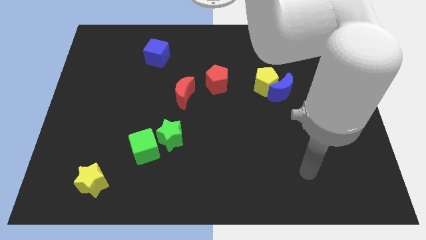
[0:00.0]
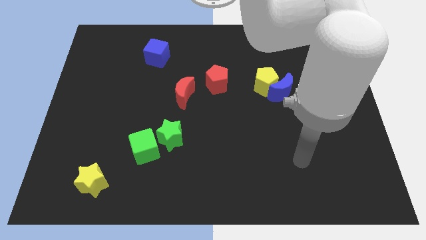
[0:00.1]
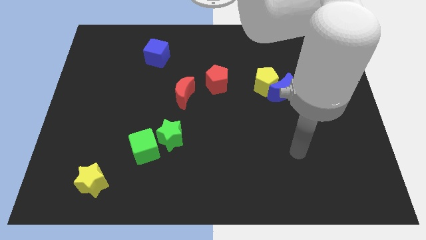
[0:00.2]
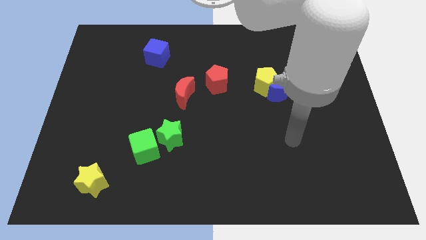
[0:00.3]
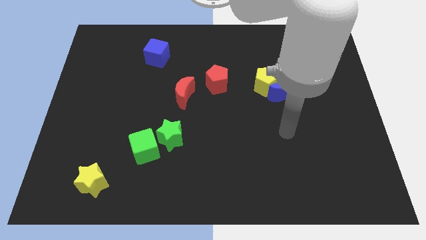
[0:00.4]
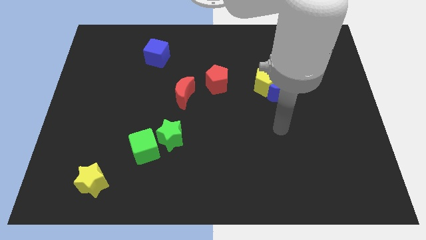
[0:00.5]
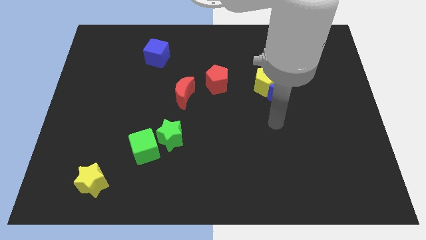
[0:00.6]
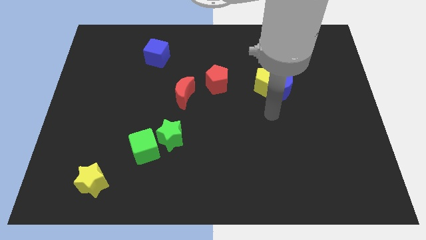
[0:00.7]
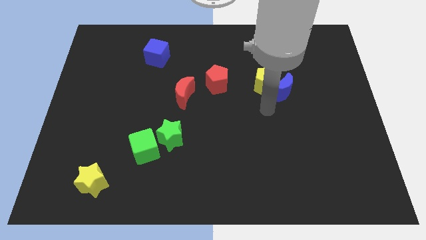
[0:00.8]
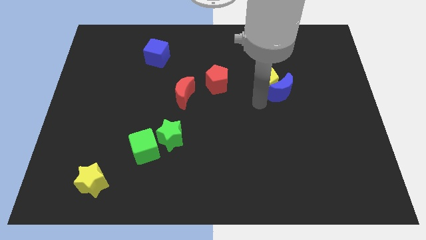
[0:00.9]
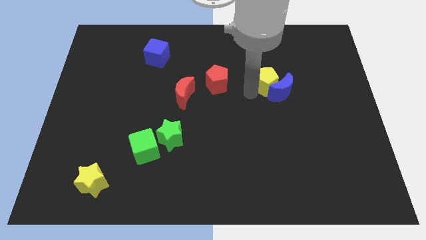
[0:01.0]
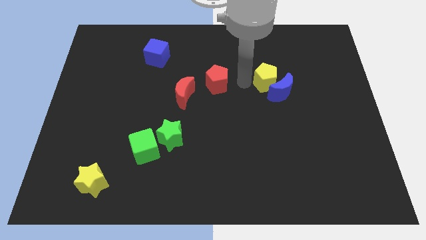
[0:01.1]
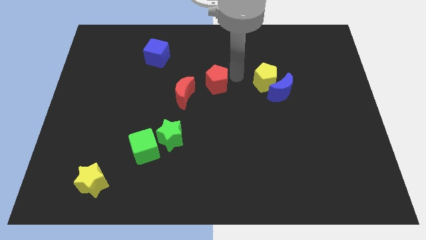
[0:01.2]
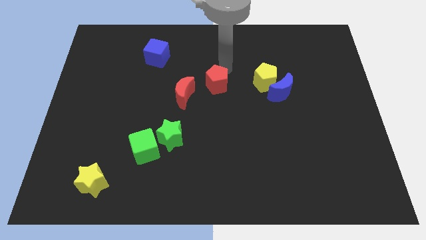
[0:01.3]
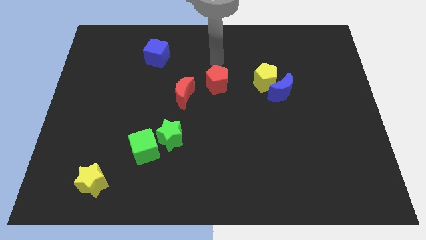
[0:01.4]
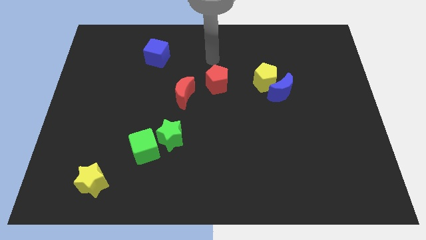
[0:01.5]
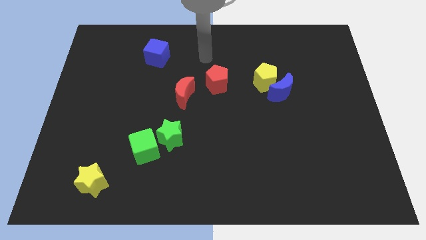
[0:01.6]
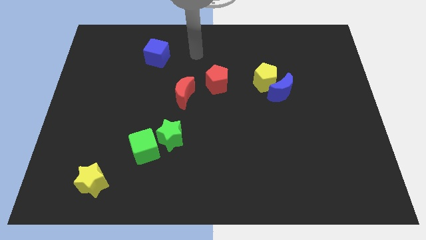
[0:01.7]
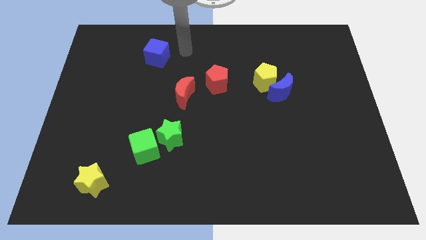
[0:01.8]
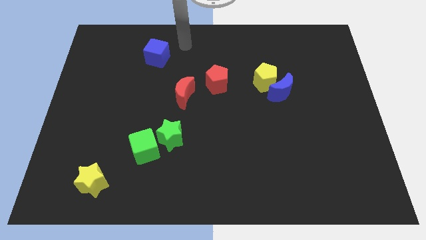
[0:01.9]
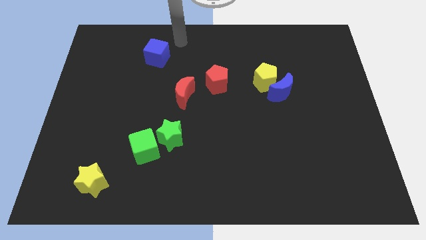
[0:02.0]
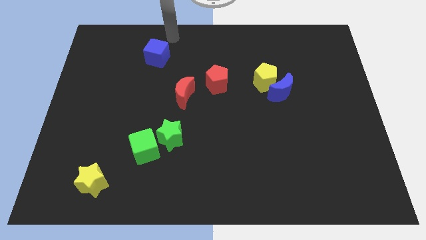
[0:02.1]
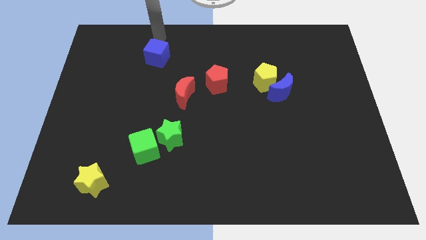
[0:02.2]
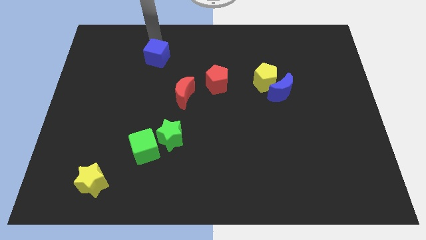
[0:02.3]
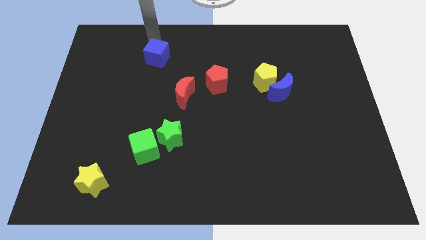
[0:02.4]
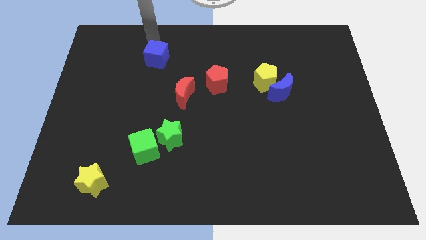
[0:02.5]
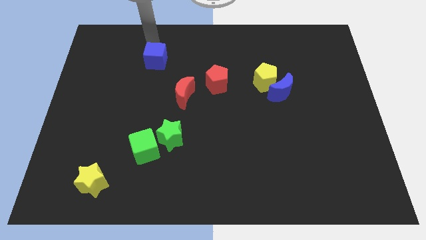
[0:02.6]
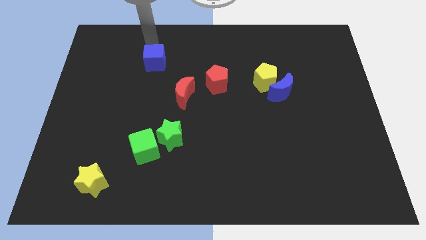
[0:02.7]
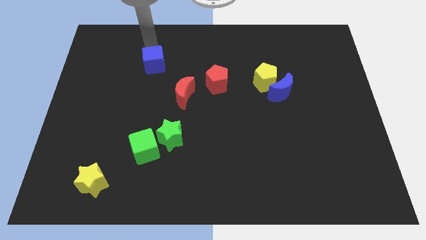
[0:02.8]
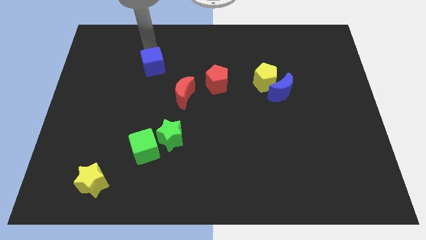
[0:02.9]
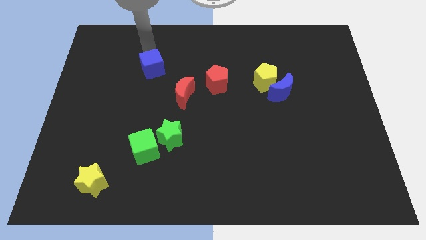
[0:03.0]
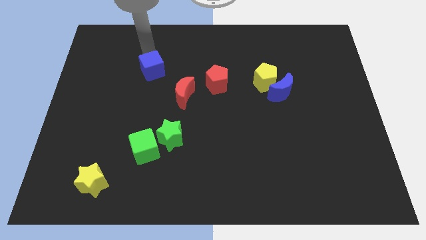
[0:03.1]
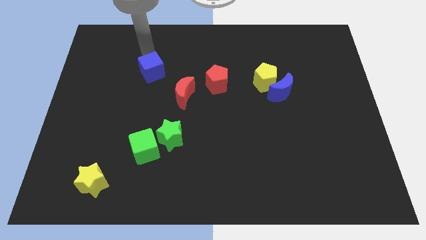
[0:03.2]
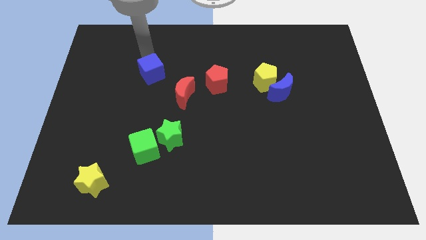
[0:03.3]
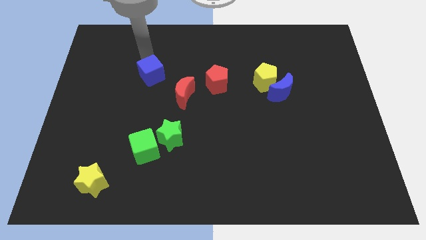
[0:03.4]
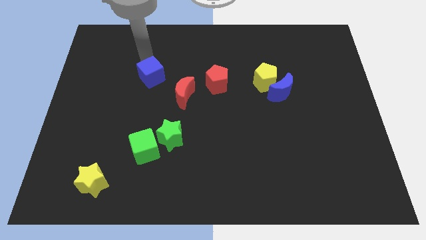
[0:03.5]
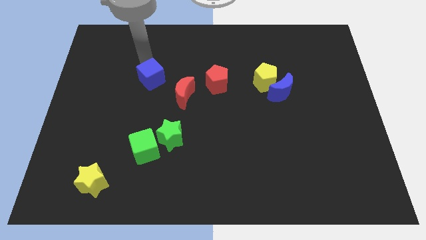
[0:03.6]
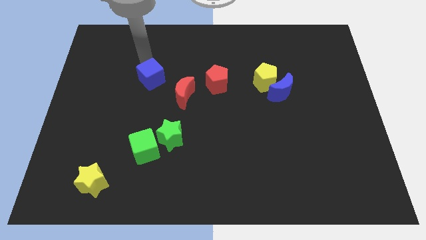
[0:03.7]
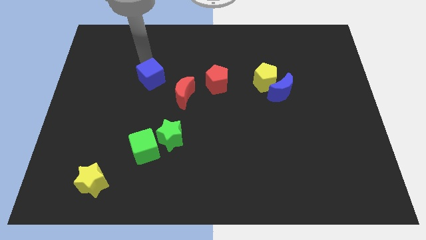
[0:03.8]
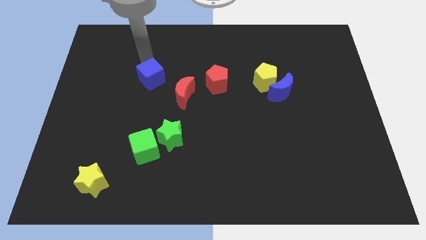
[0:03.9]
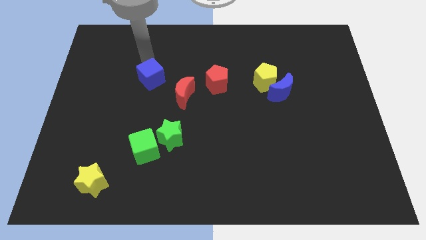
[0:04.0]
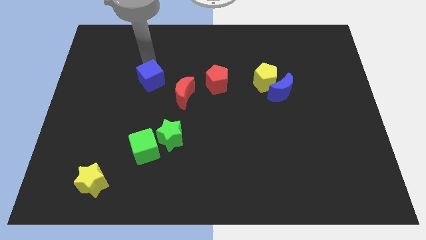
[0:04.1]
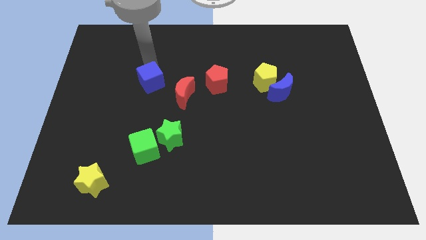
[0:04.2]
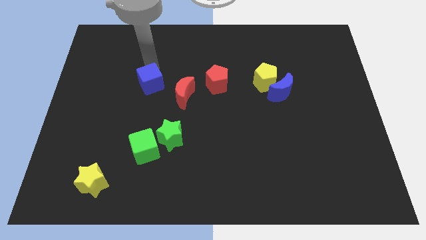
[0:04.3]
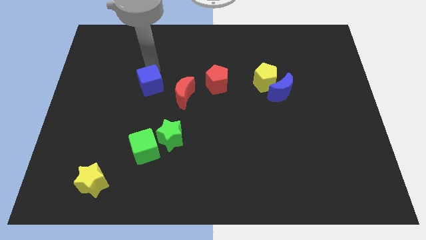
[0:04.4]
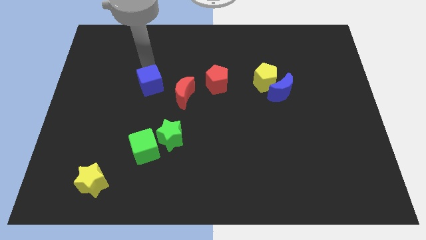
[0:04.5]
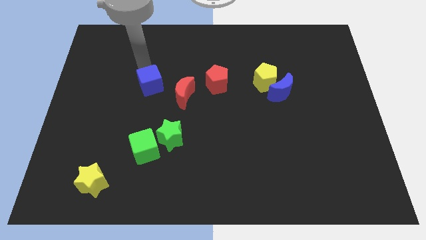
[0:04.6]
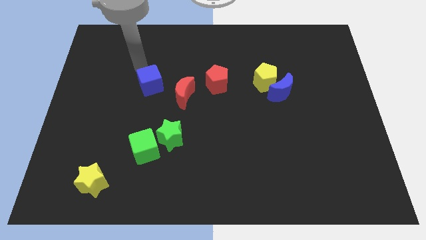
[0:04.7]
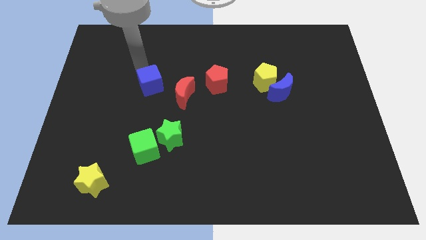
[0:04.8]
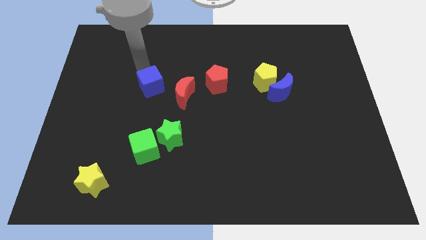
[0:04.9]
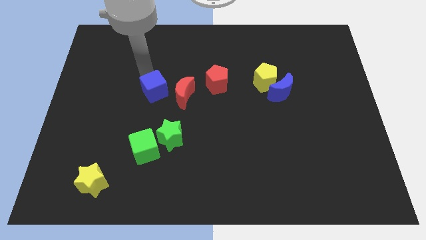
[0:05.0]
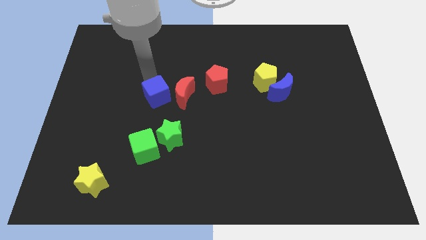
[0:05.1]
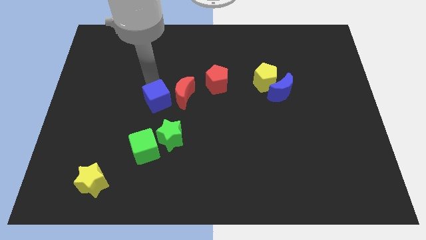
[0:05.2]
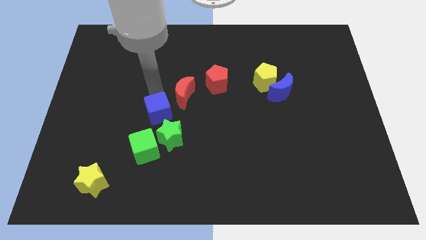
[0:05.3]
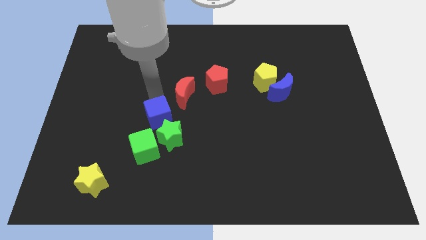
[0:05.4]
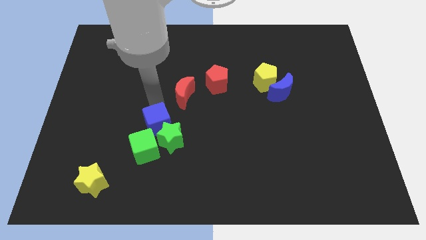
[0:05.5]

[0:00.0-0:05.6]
put the blue cube close to the green star

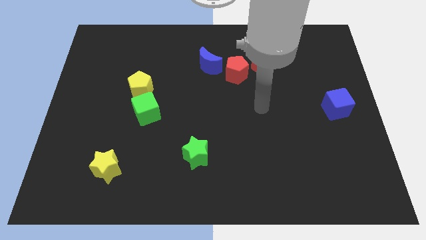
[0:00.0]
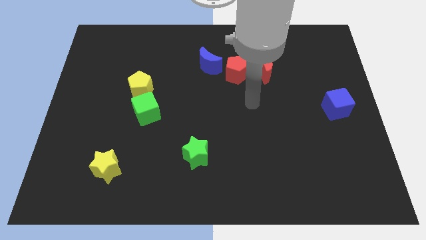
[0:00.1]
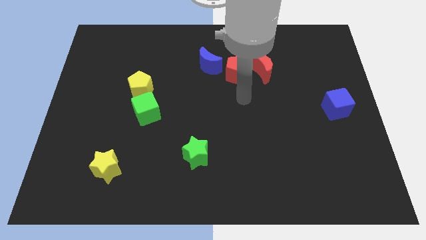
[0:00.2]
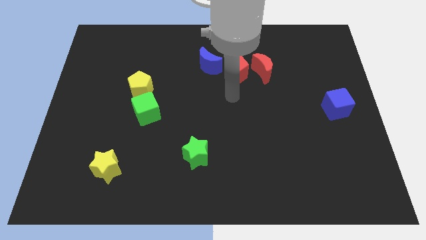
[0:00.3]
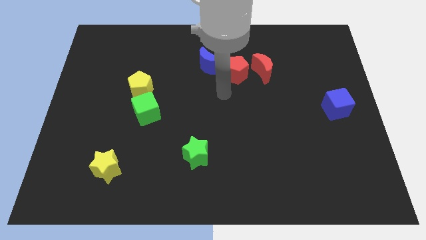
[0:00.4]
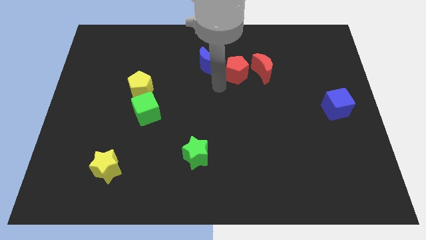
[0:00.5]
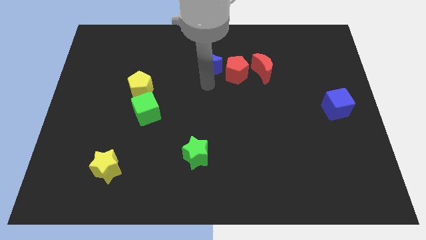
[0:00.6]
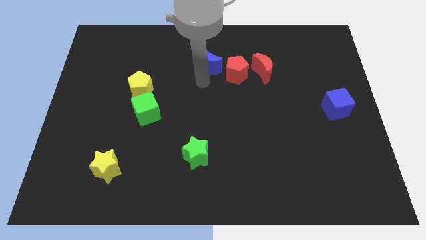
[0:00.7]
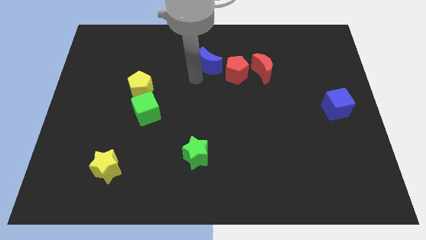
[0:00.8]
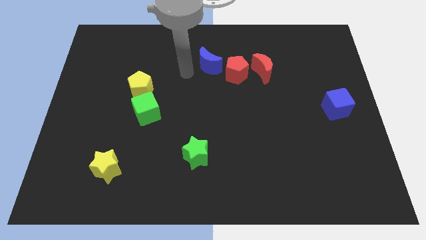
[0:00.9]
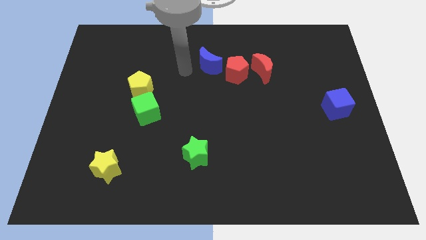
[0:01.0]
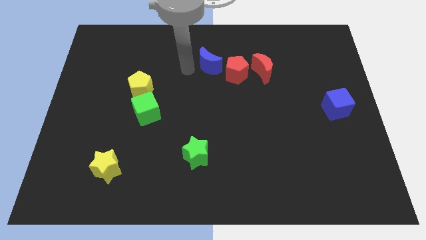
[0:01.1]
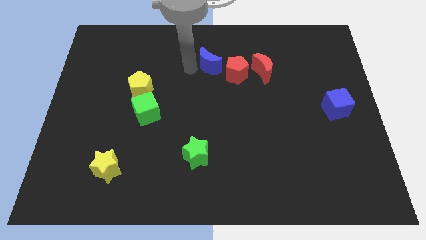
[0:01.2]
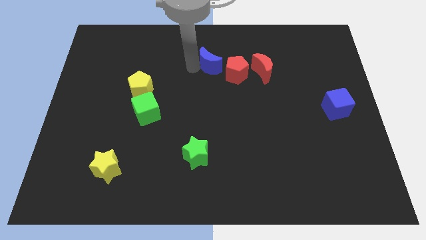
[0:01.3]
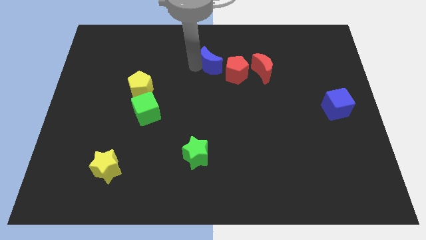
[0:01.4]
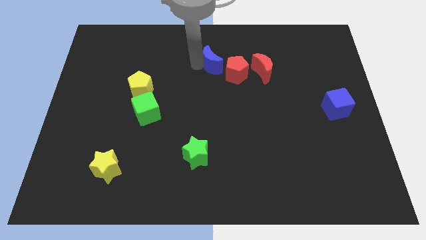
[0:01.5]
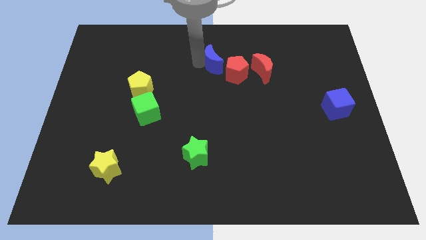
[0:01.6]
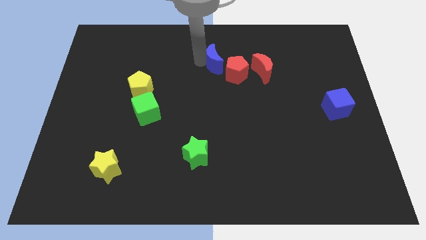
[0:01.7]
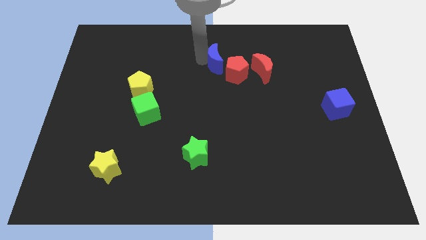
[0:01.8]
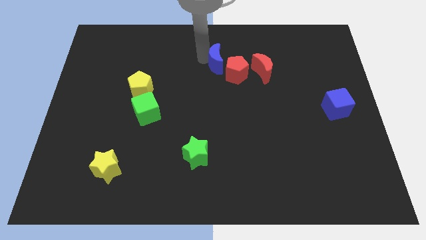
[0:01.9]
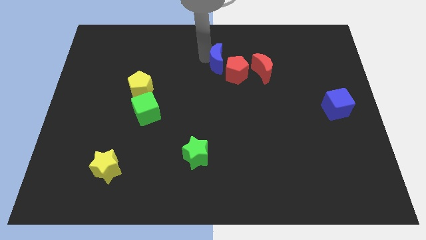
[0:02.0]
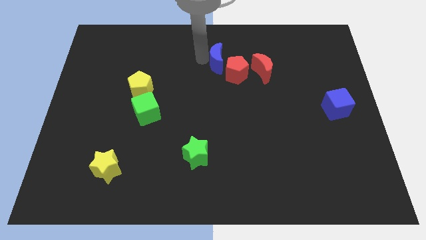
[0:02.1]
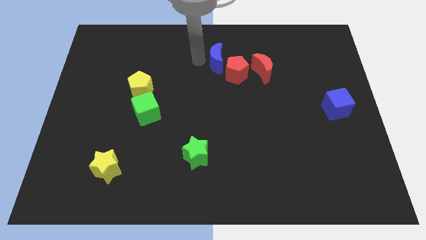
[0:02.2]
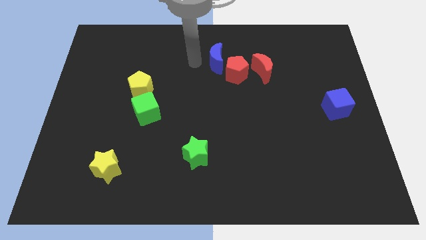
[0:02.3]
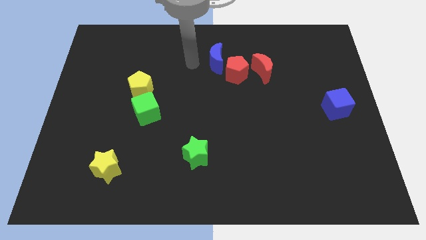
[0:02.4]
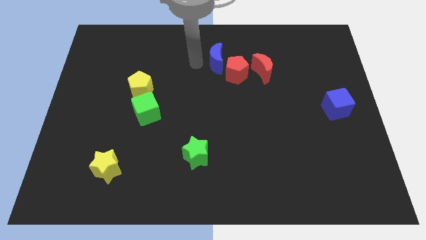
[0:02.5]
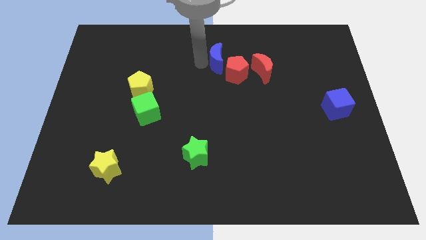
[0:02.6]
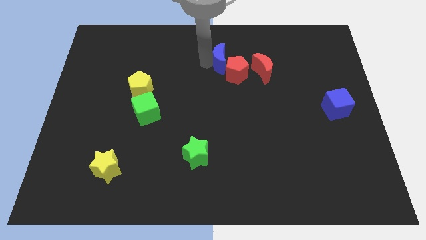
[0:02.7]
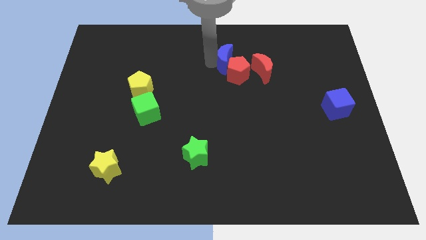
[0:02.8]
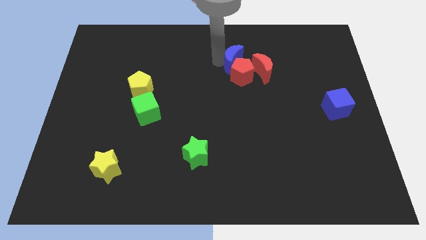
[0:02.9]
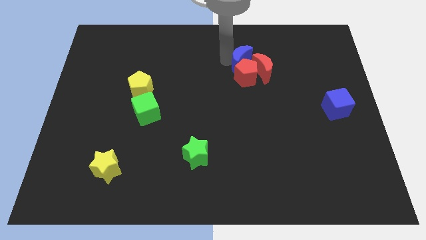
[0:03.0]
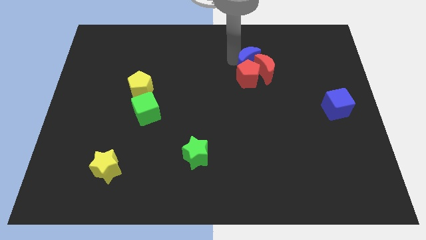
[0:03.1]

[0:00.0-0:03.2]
put the blue moon to the red moon
